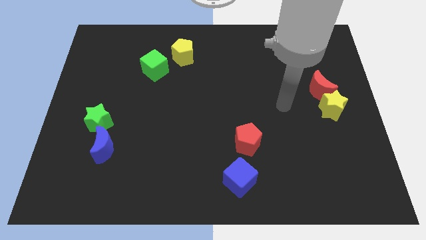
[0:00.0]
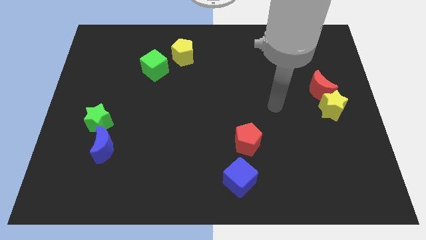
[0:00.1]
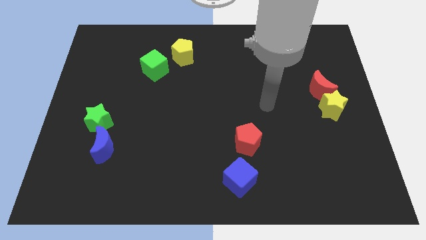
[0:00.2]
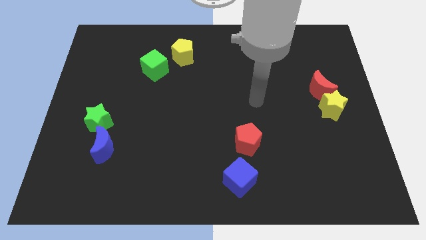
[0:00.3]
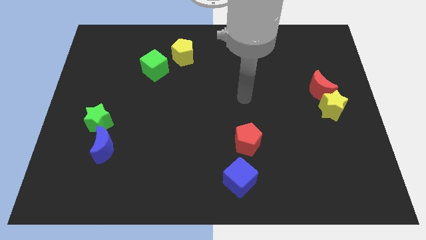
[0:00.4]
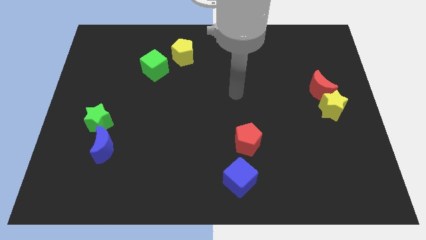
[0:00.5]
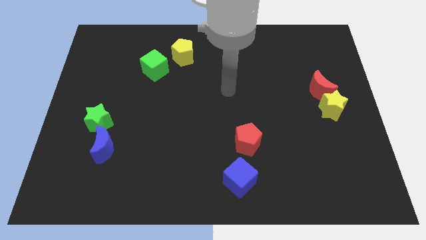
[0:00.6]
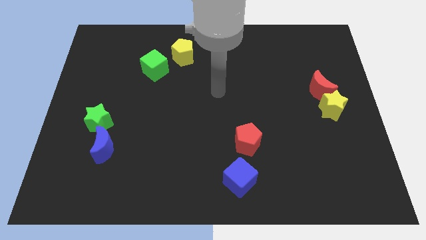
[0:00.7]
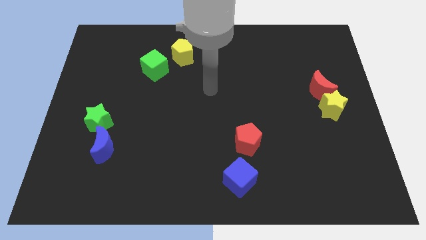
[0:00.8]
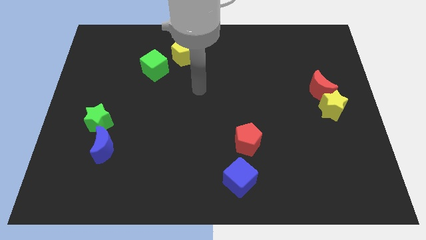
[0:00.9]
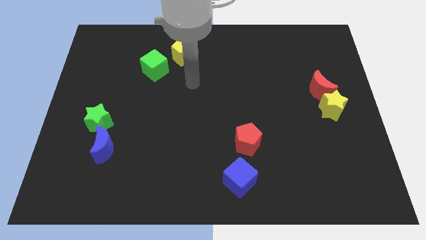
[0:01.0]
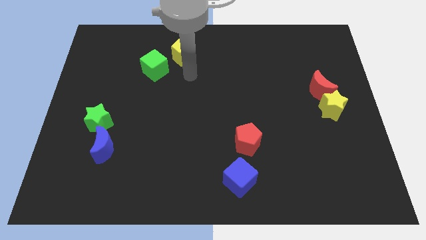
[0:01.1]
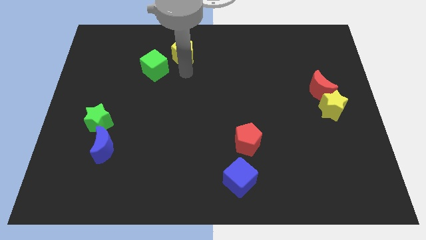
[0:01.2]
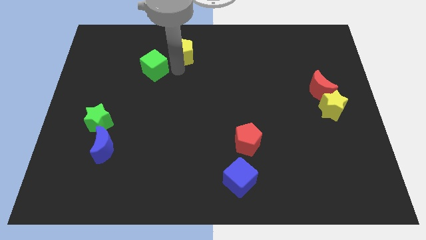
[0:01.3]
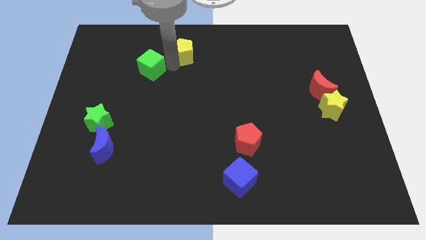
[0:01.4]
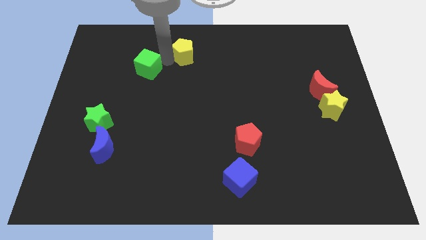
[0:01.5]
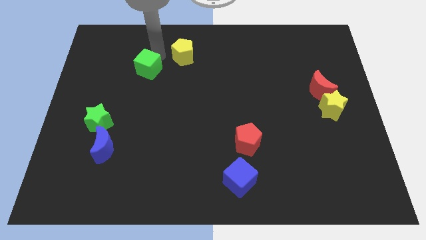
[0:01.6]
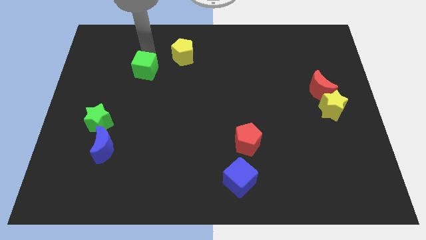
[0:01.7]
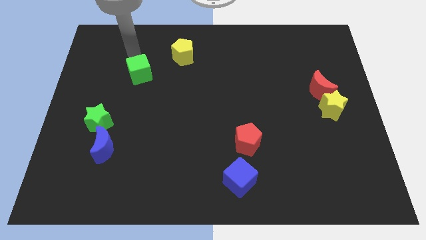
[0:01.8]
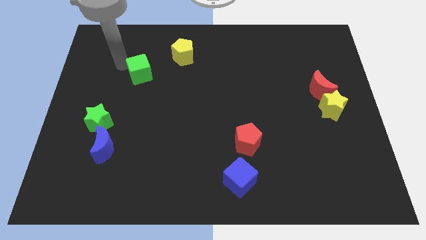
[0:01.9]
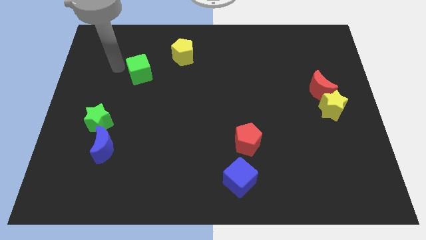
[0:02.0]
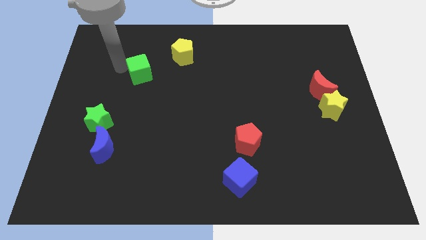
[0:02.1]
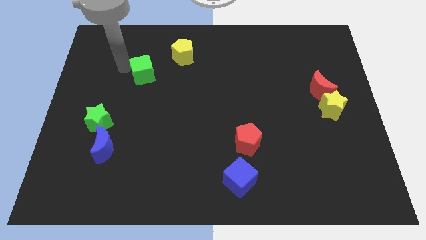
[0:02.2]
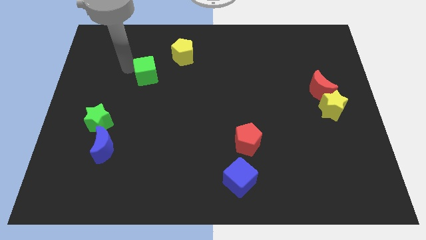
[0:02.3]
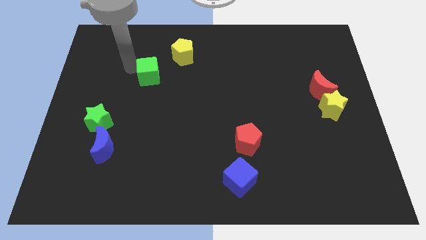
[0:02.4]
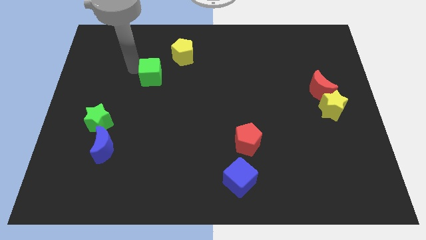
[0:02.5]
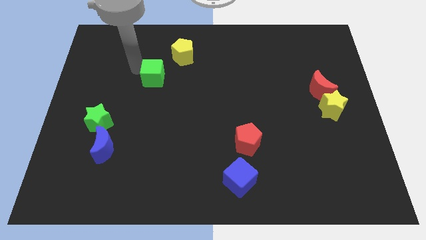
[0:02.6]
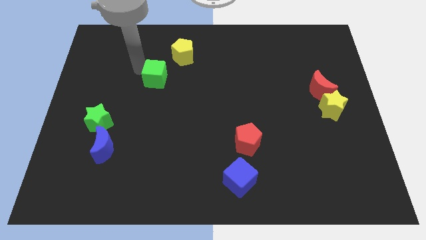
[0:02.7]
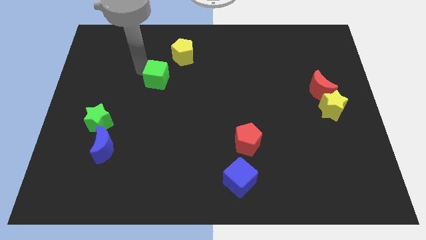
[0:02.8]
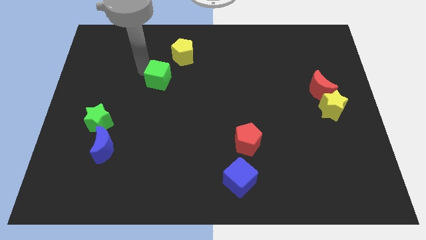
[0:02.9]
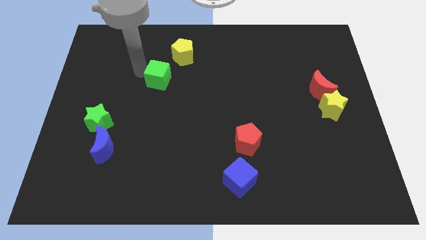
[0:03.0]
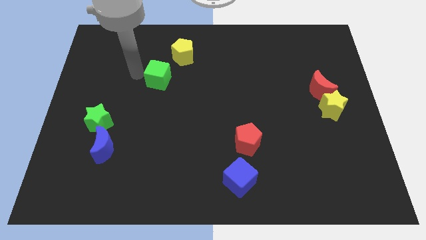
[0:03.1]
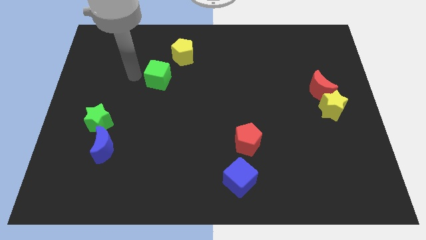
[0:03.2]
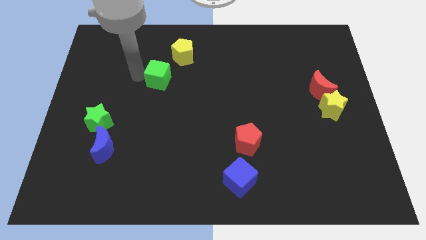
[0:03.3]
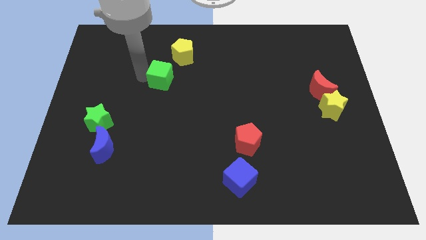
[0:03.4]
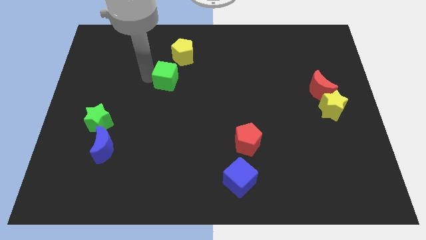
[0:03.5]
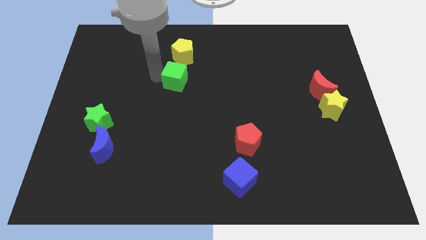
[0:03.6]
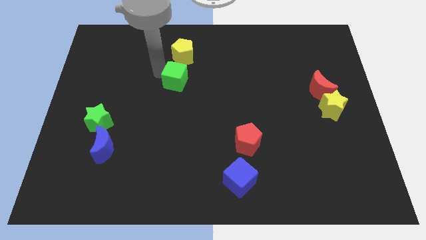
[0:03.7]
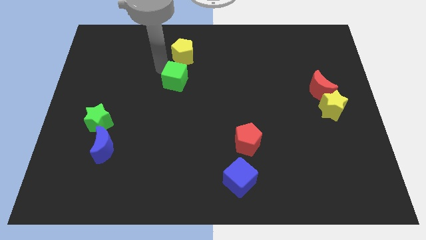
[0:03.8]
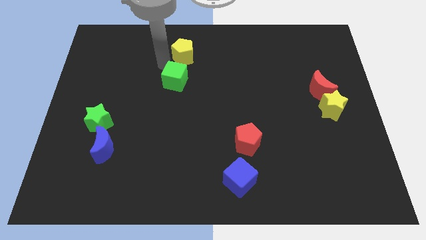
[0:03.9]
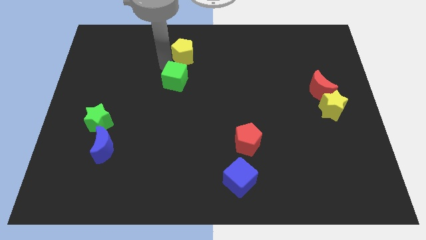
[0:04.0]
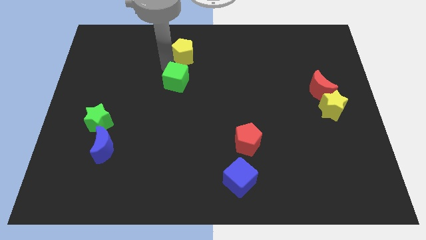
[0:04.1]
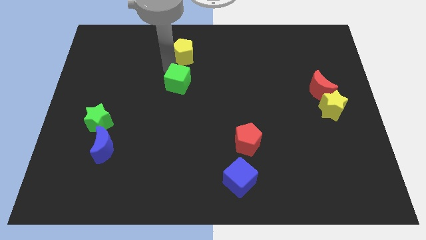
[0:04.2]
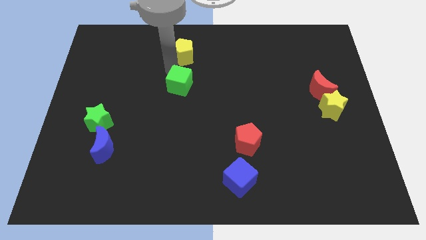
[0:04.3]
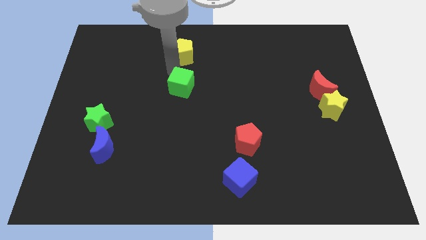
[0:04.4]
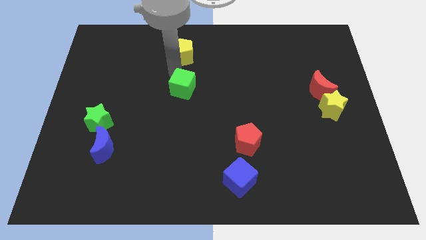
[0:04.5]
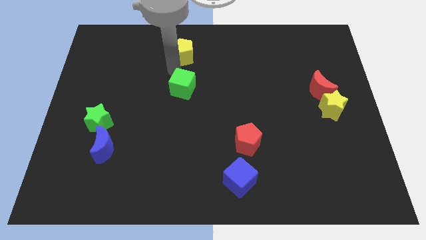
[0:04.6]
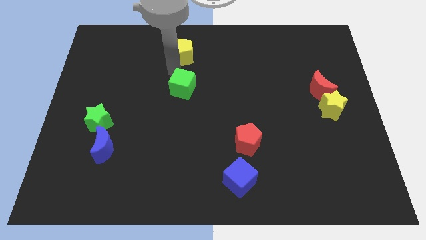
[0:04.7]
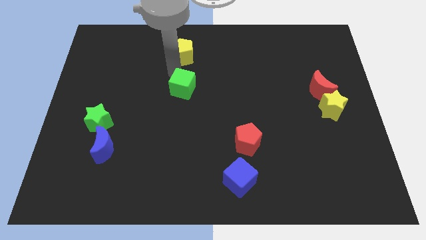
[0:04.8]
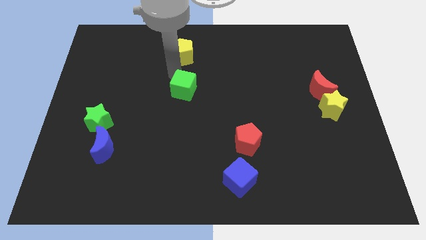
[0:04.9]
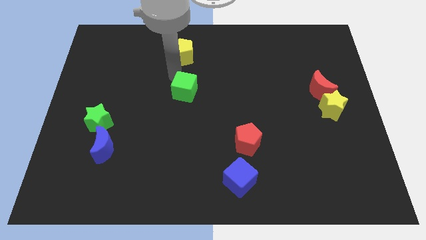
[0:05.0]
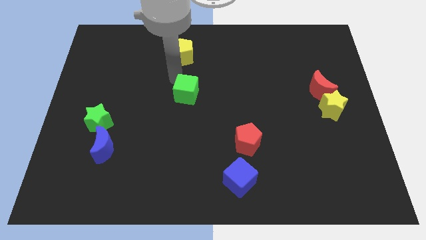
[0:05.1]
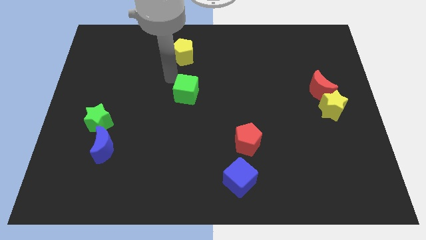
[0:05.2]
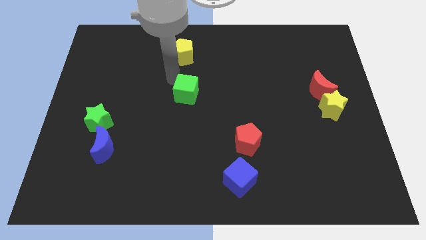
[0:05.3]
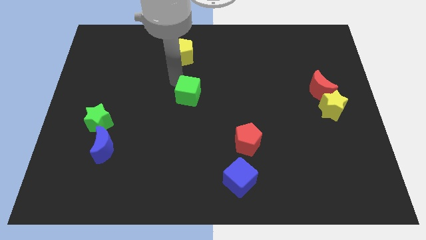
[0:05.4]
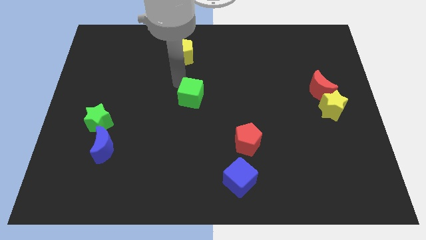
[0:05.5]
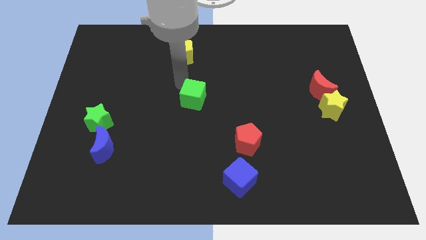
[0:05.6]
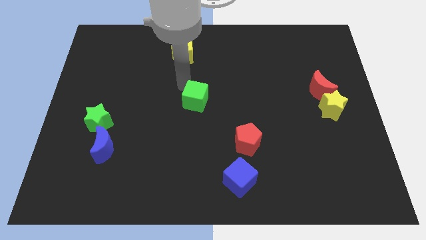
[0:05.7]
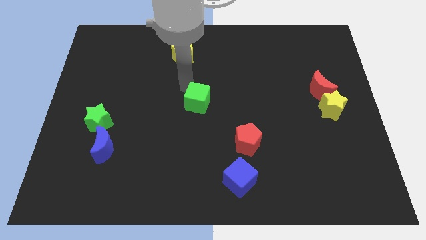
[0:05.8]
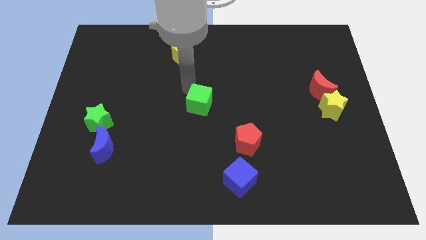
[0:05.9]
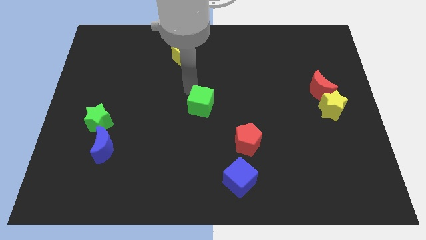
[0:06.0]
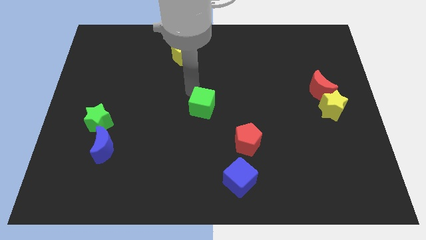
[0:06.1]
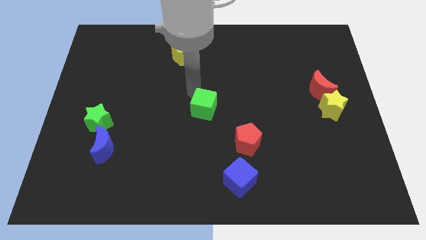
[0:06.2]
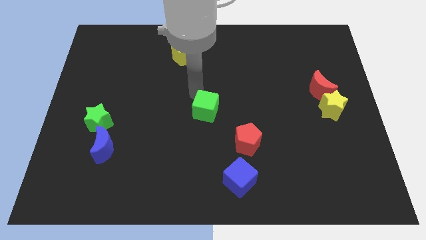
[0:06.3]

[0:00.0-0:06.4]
put the green cube to the top left side of the red pentagon

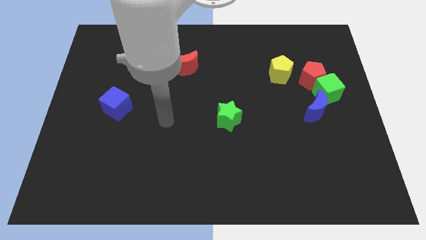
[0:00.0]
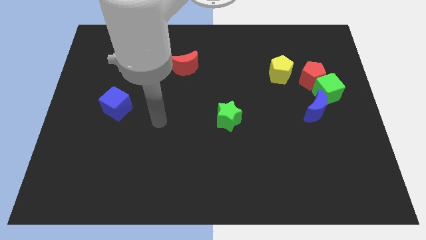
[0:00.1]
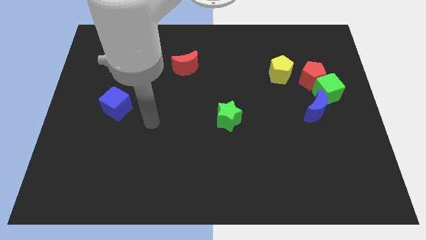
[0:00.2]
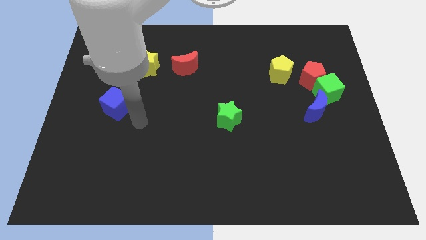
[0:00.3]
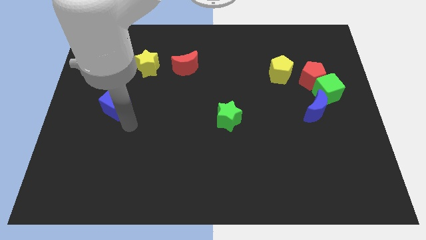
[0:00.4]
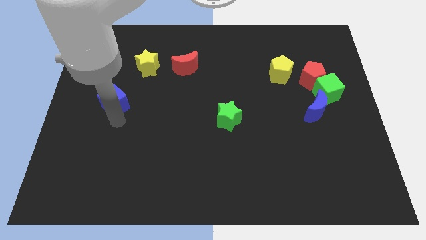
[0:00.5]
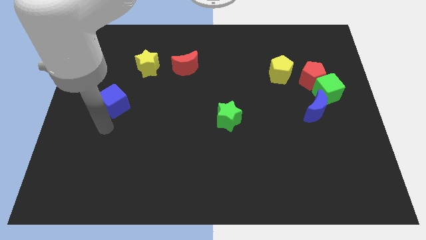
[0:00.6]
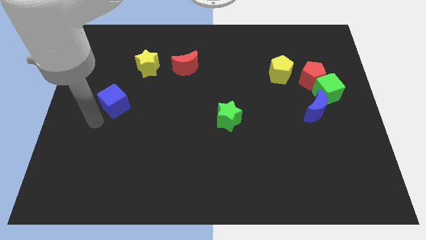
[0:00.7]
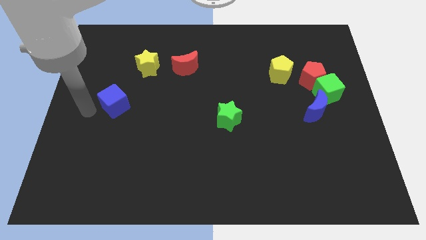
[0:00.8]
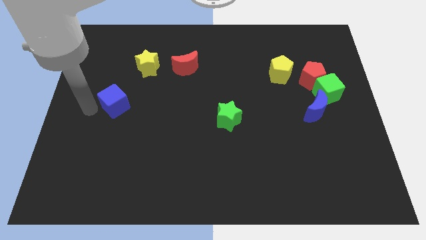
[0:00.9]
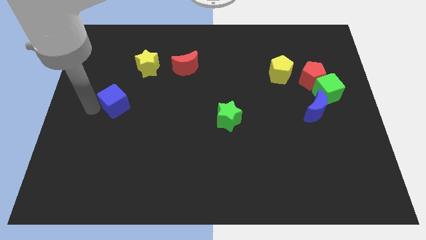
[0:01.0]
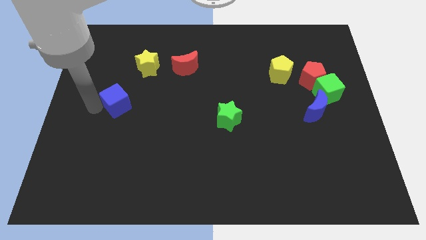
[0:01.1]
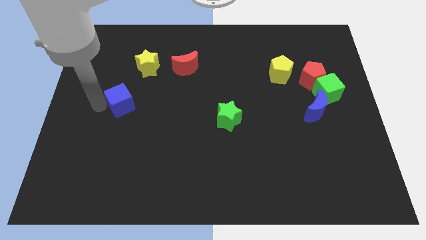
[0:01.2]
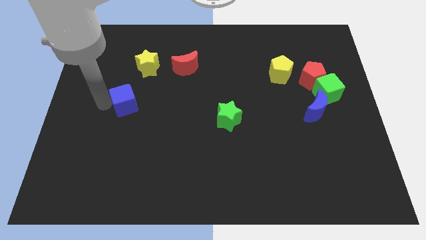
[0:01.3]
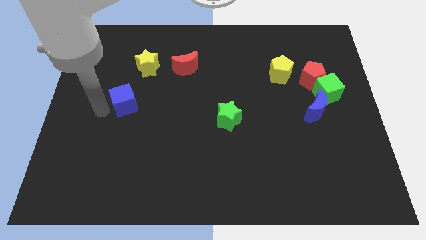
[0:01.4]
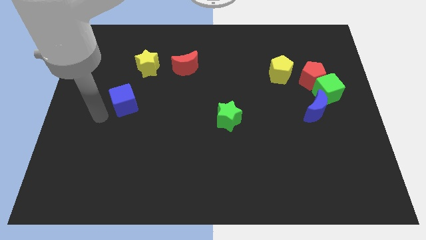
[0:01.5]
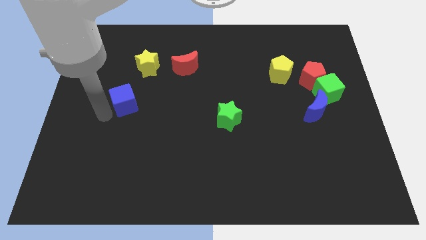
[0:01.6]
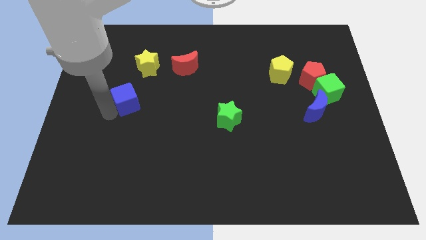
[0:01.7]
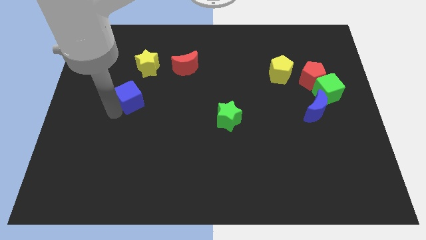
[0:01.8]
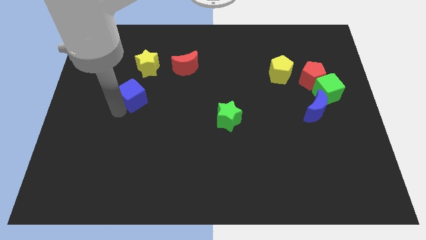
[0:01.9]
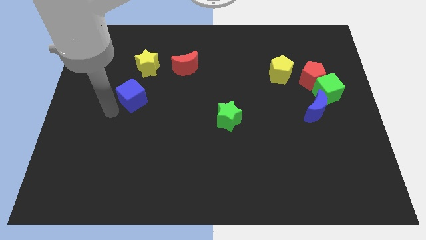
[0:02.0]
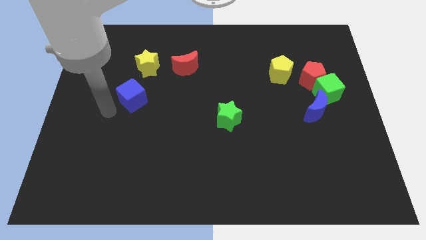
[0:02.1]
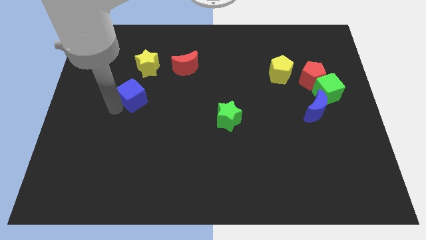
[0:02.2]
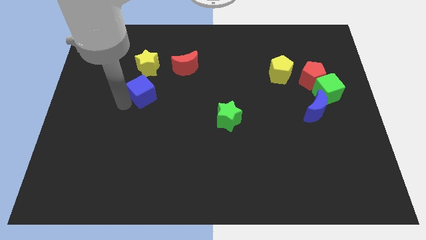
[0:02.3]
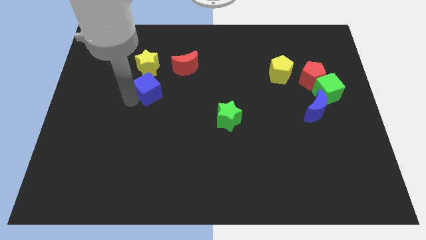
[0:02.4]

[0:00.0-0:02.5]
move the blue cube diagonally down and to the left of the red moon
